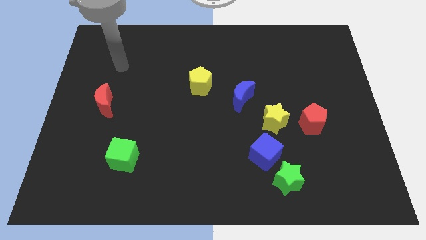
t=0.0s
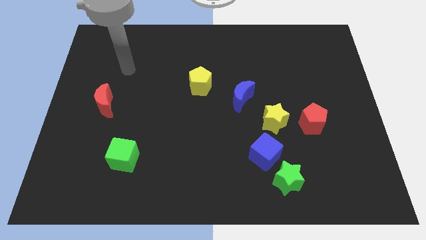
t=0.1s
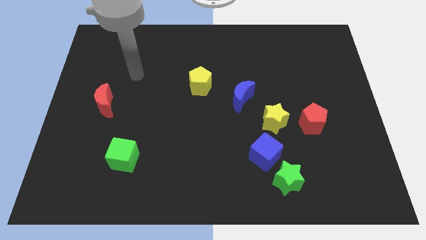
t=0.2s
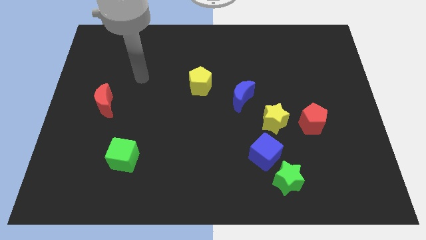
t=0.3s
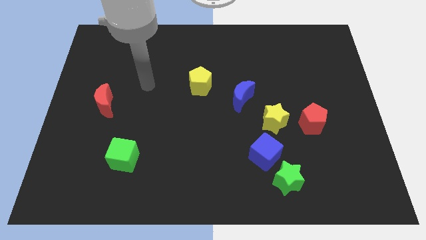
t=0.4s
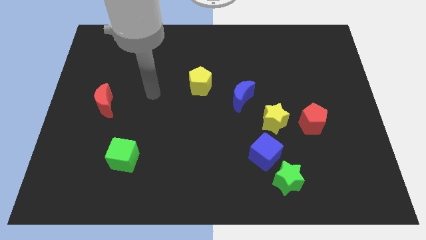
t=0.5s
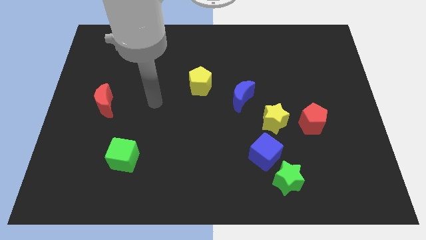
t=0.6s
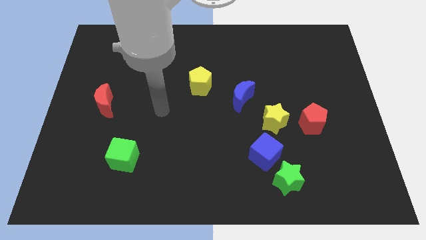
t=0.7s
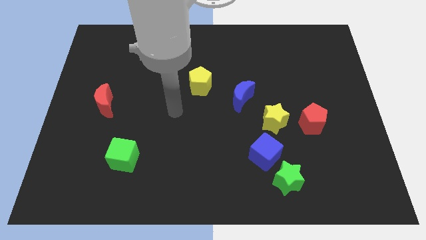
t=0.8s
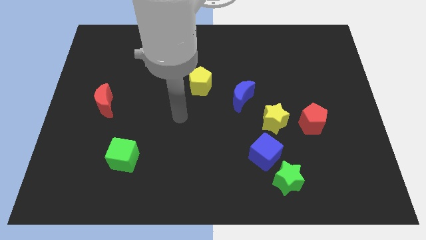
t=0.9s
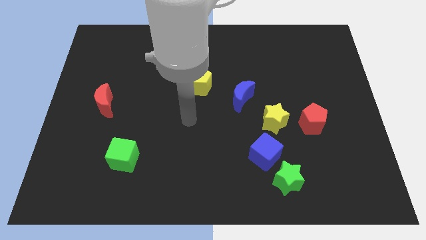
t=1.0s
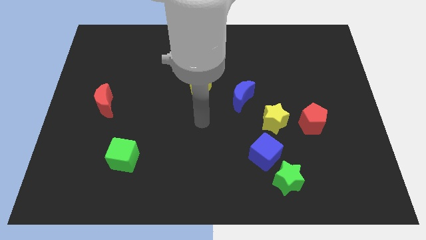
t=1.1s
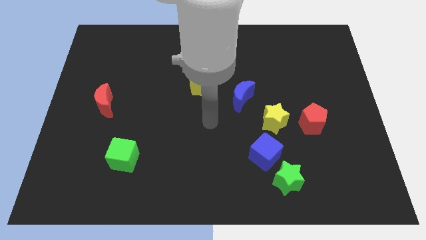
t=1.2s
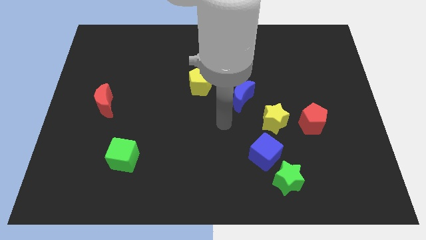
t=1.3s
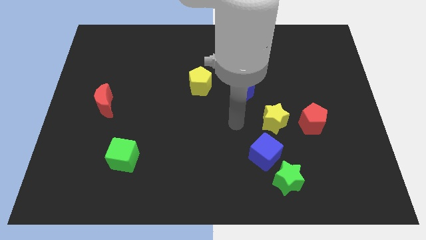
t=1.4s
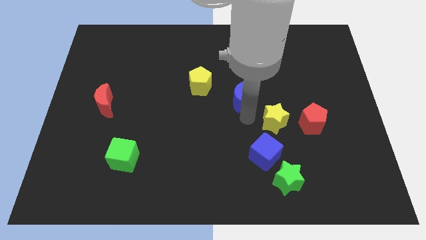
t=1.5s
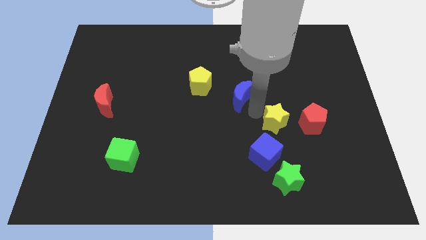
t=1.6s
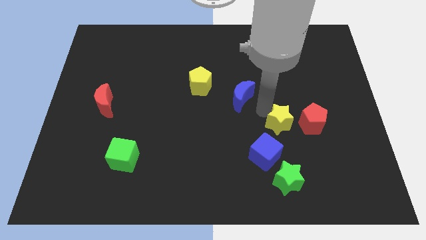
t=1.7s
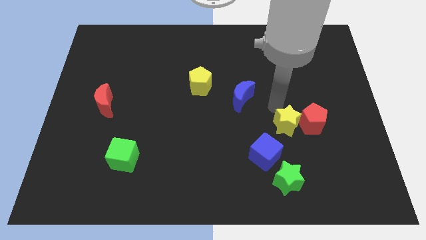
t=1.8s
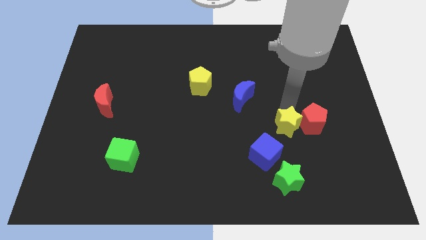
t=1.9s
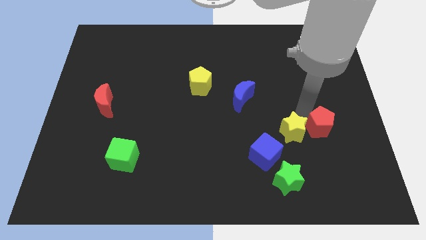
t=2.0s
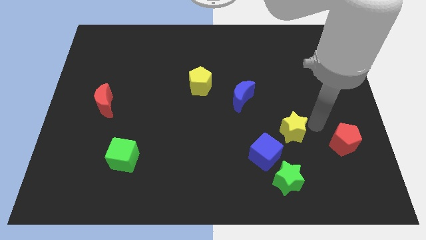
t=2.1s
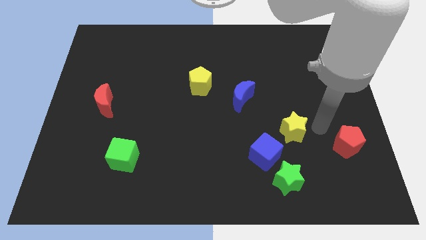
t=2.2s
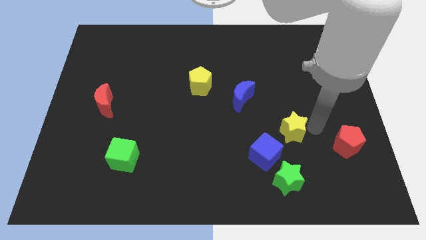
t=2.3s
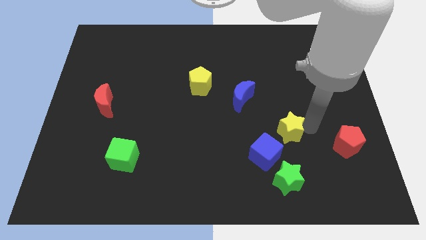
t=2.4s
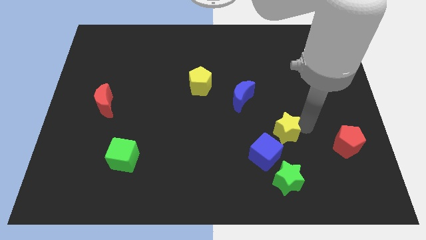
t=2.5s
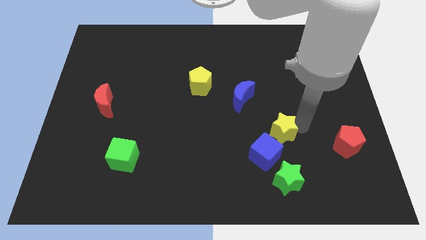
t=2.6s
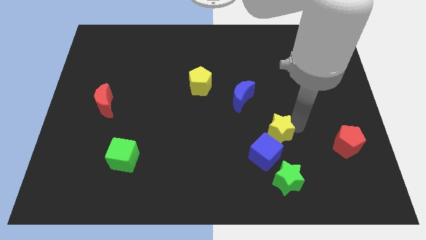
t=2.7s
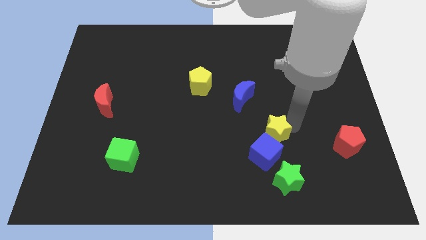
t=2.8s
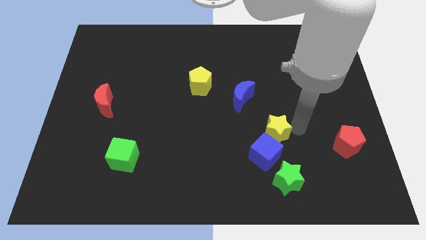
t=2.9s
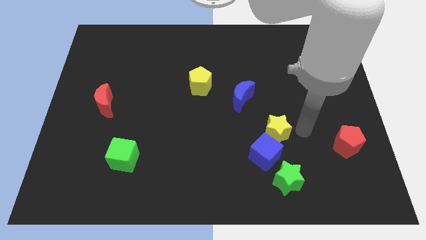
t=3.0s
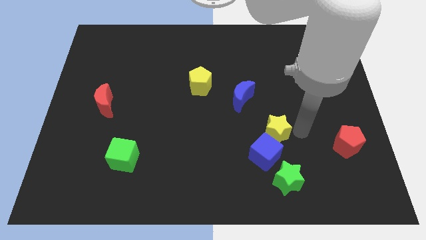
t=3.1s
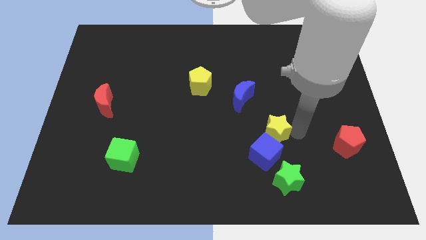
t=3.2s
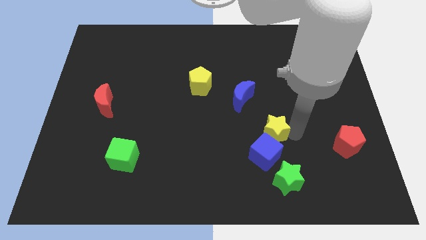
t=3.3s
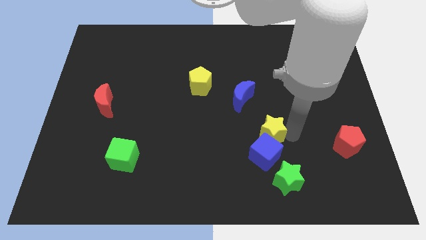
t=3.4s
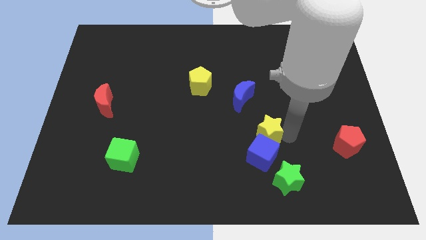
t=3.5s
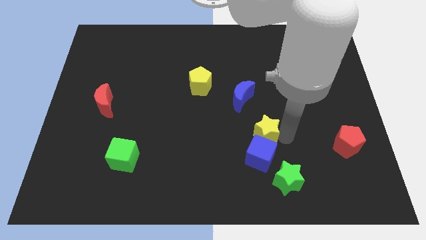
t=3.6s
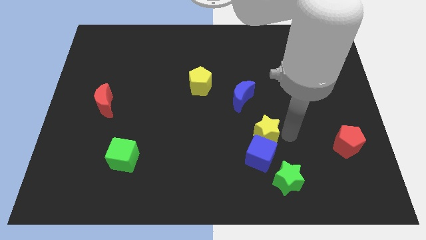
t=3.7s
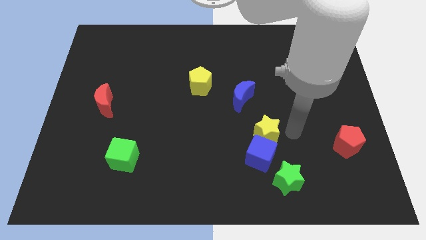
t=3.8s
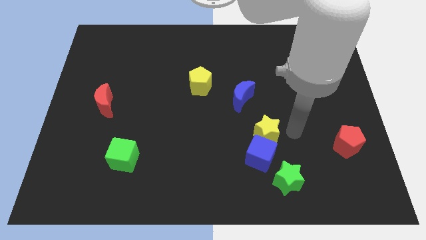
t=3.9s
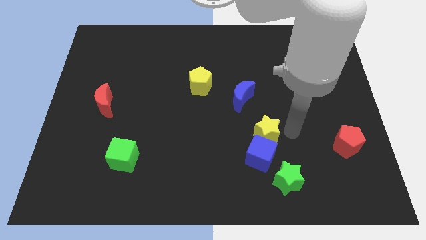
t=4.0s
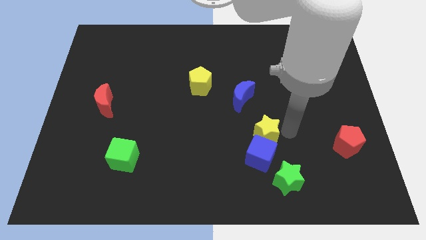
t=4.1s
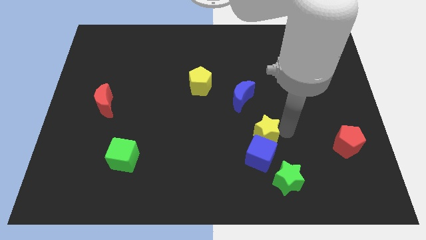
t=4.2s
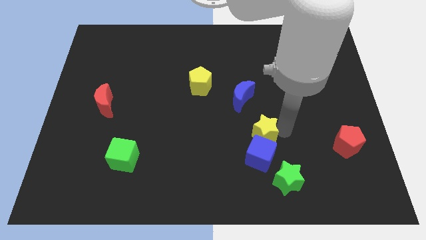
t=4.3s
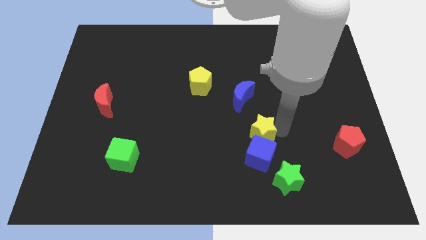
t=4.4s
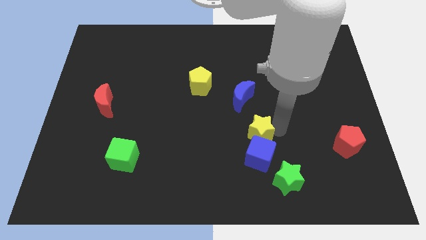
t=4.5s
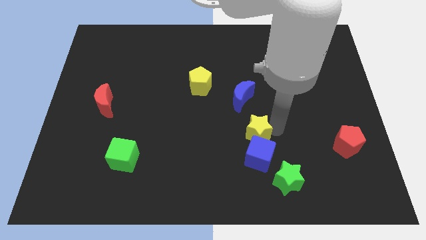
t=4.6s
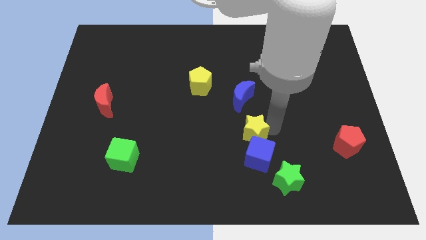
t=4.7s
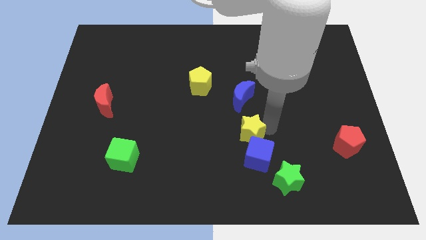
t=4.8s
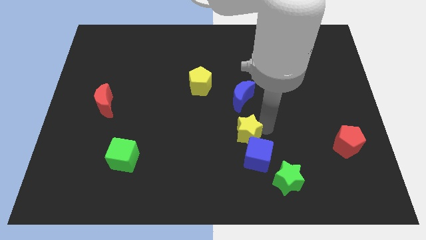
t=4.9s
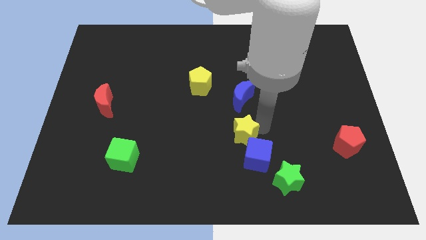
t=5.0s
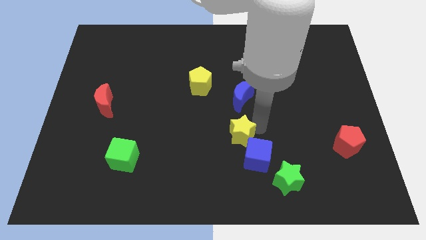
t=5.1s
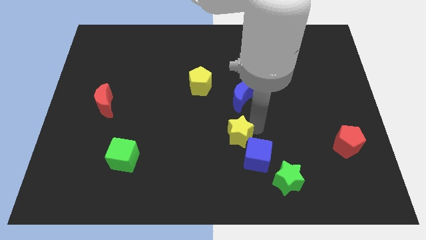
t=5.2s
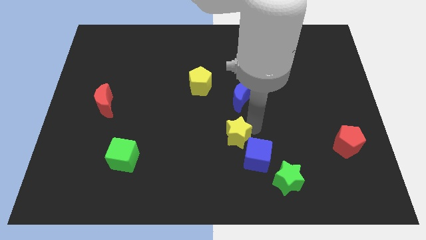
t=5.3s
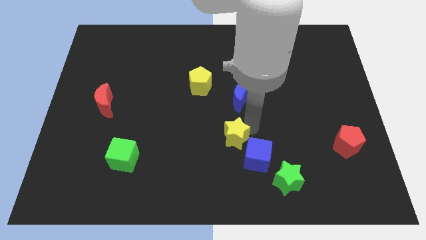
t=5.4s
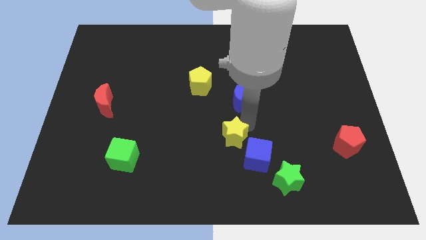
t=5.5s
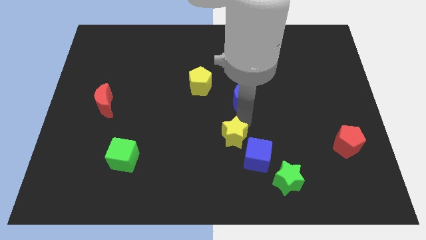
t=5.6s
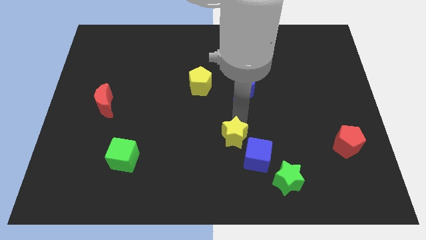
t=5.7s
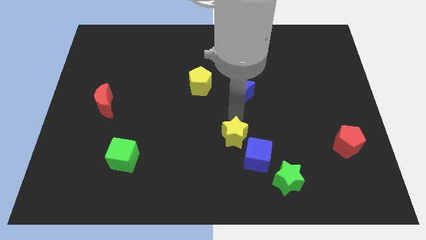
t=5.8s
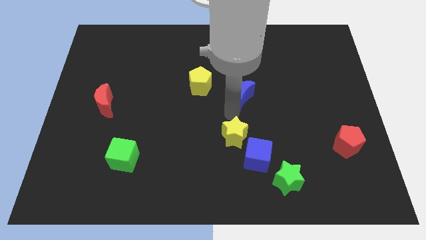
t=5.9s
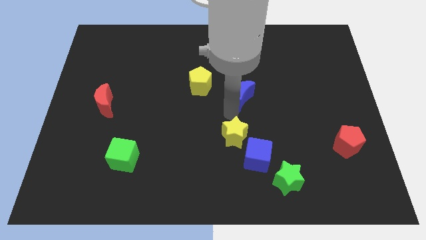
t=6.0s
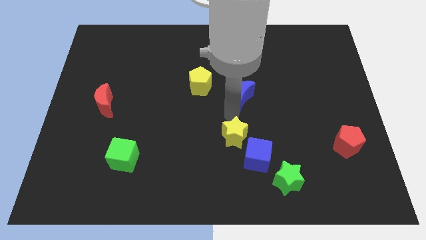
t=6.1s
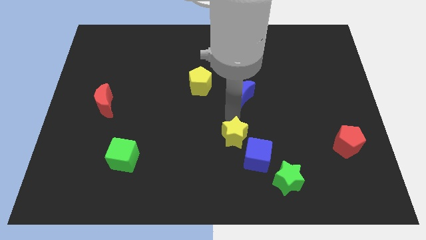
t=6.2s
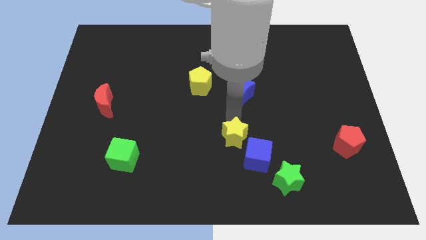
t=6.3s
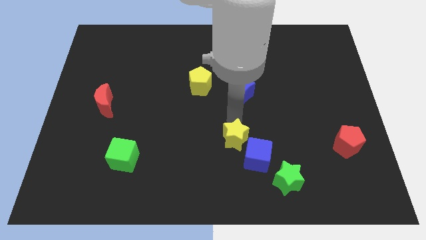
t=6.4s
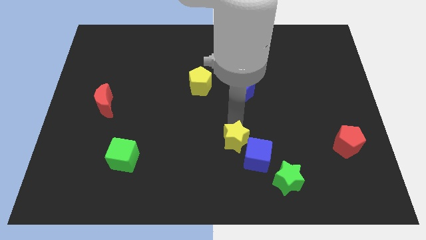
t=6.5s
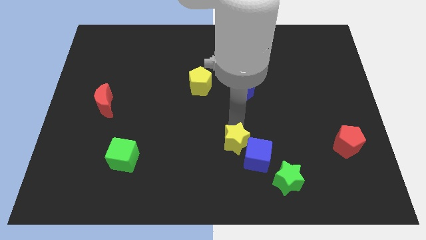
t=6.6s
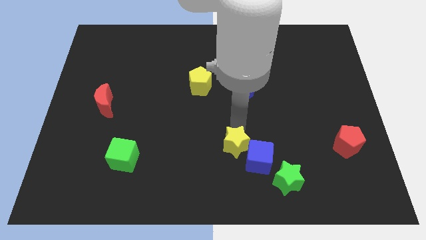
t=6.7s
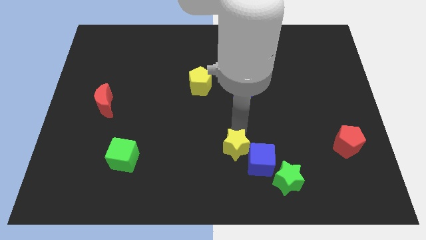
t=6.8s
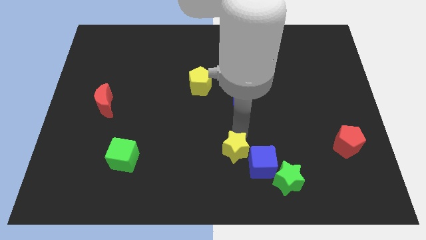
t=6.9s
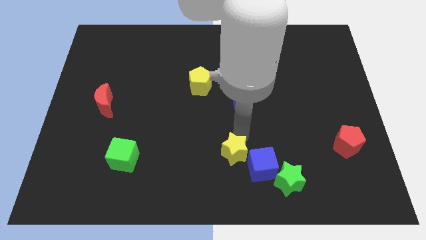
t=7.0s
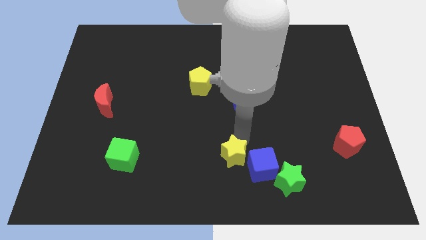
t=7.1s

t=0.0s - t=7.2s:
slide the yellow star to the bottom
